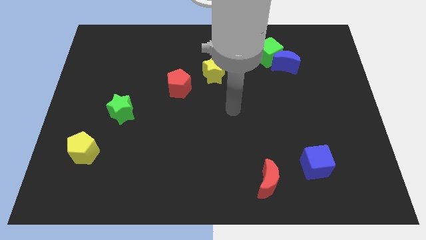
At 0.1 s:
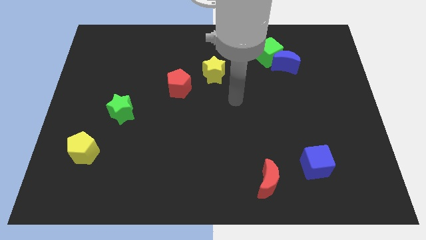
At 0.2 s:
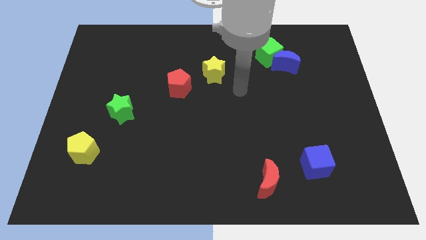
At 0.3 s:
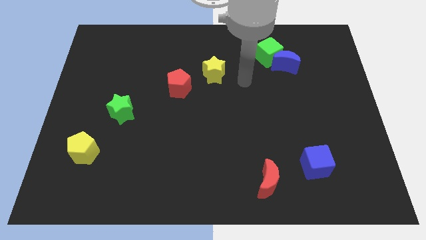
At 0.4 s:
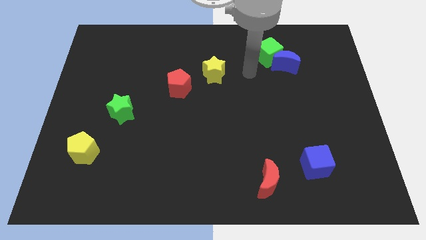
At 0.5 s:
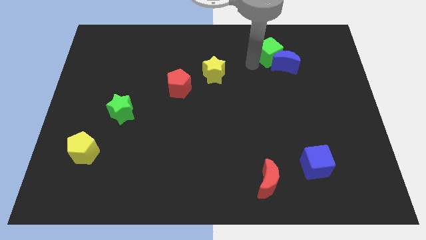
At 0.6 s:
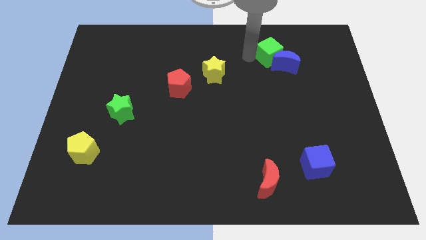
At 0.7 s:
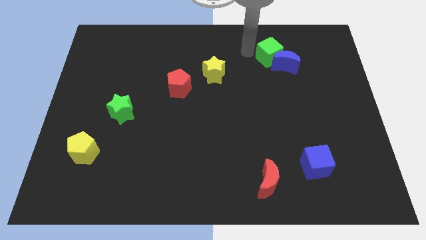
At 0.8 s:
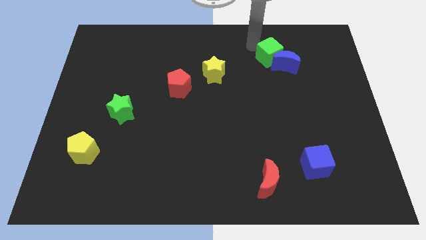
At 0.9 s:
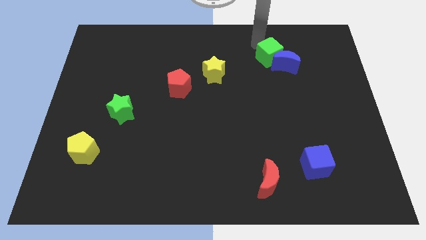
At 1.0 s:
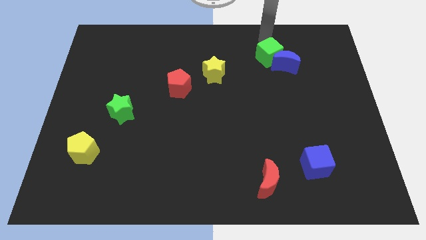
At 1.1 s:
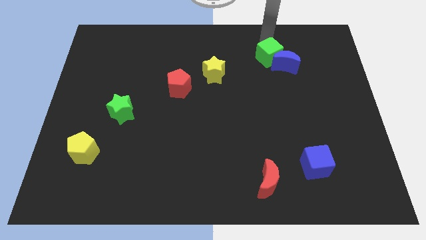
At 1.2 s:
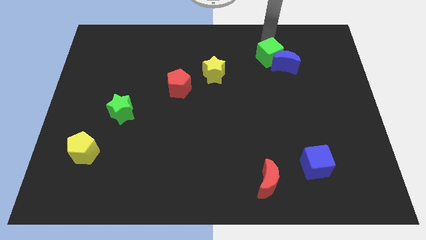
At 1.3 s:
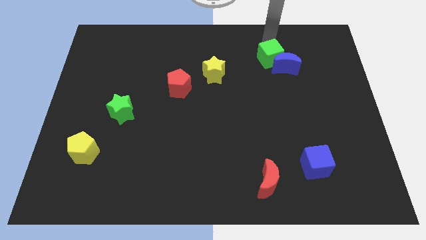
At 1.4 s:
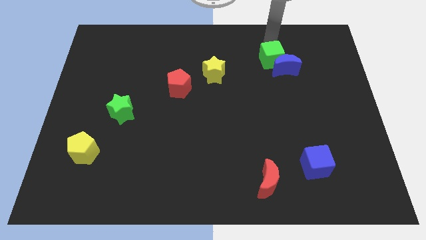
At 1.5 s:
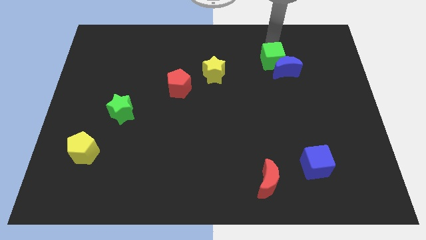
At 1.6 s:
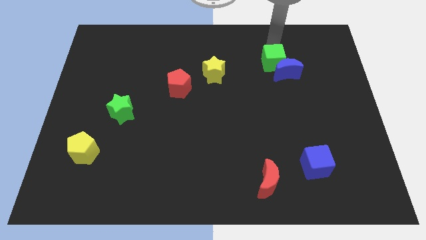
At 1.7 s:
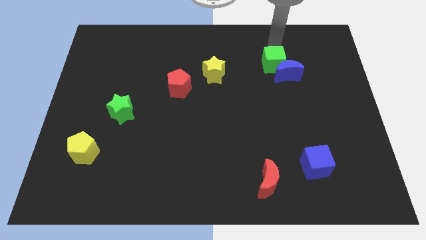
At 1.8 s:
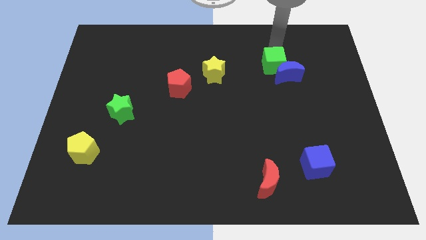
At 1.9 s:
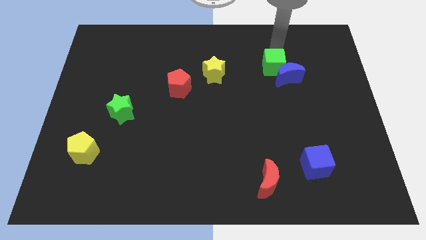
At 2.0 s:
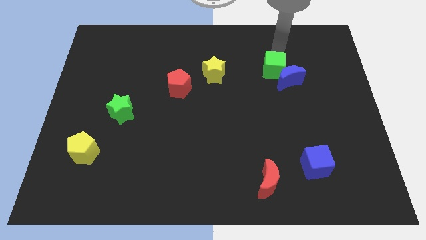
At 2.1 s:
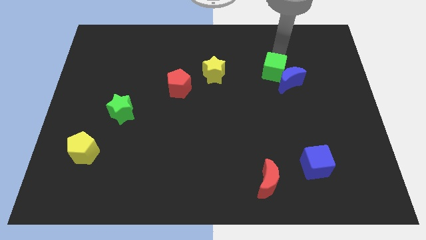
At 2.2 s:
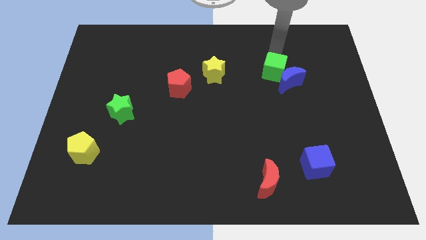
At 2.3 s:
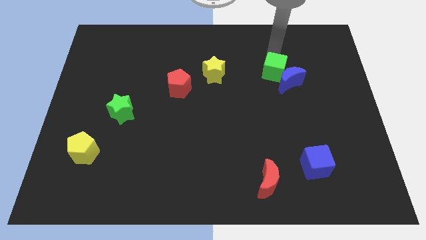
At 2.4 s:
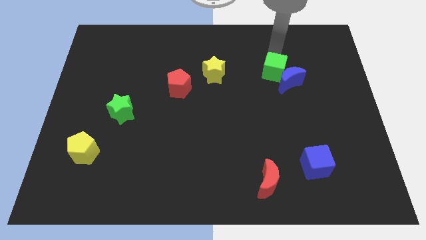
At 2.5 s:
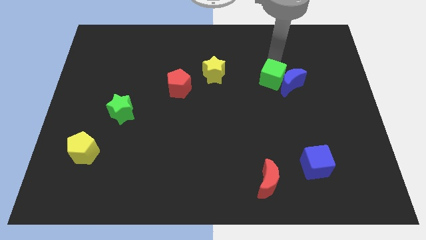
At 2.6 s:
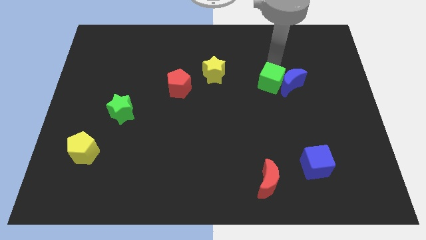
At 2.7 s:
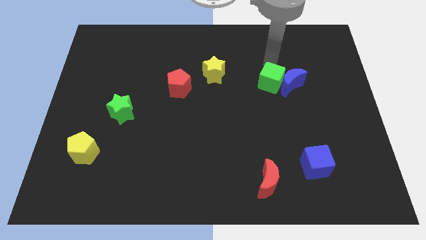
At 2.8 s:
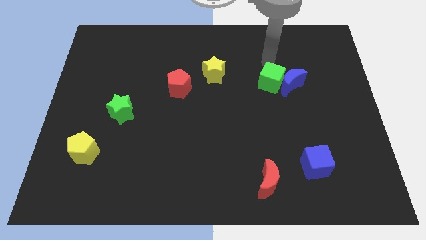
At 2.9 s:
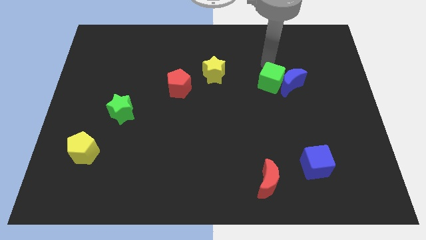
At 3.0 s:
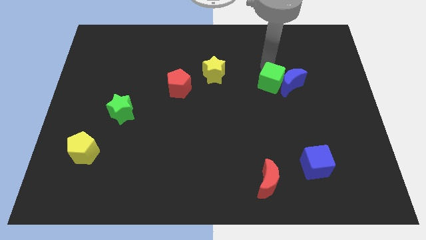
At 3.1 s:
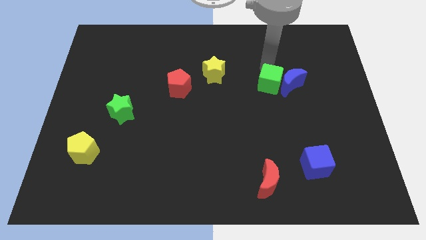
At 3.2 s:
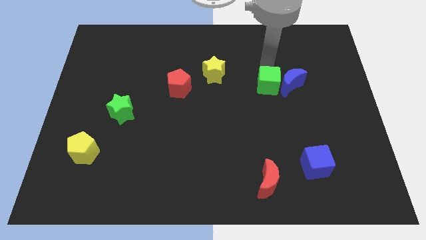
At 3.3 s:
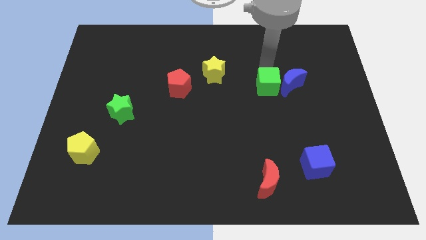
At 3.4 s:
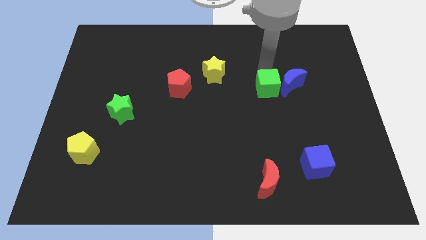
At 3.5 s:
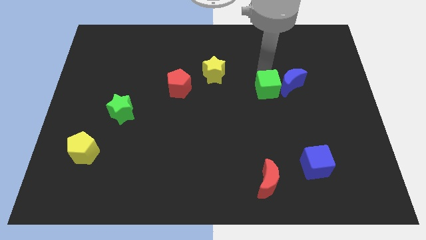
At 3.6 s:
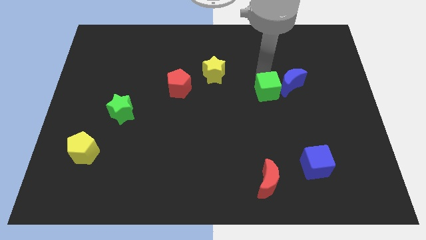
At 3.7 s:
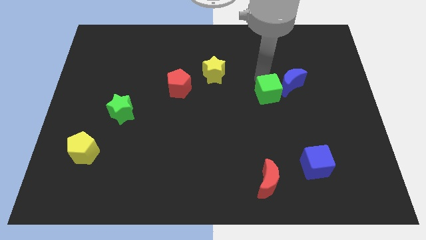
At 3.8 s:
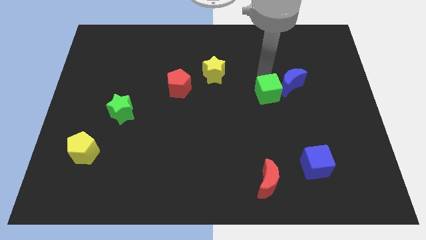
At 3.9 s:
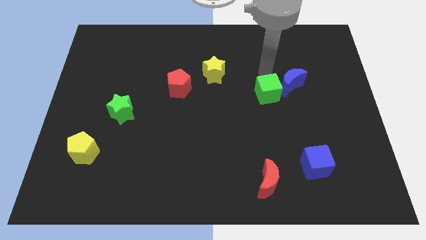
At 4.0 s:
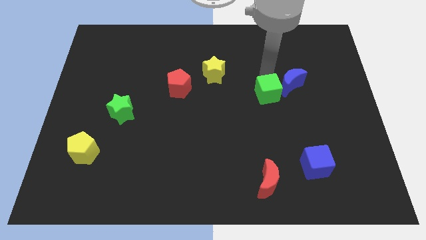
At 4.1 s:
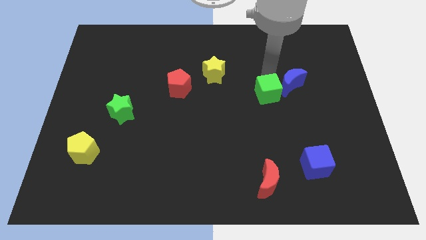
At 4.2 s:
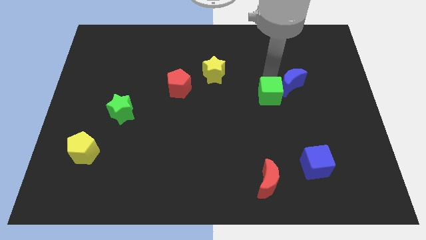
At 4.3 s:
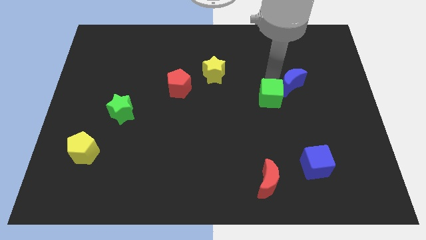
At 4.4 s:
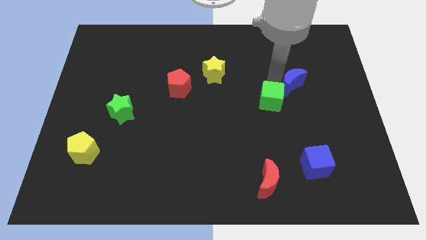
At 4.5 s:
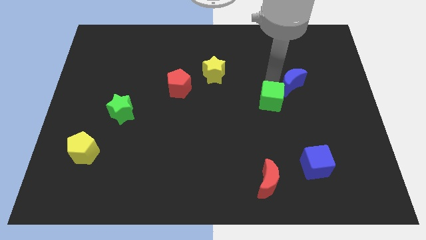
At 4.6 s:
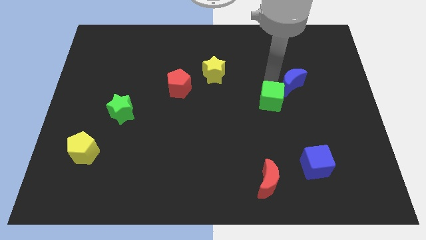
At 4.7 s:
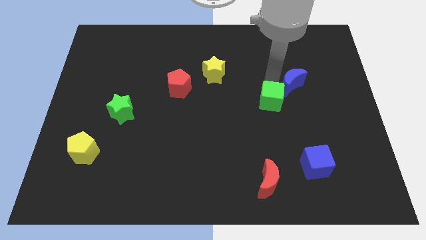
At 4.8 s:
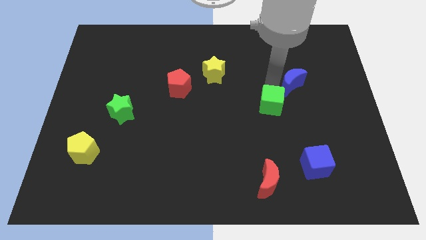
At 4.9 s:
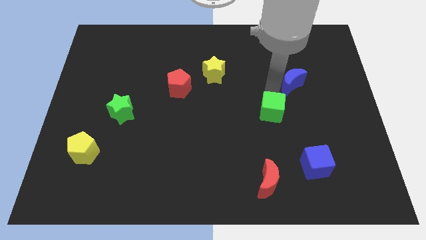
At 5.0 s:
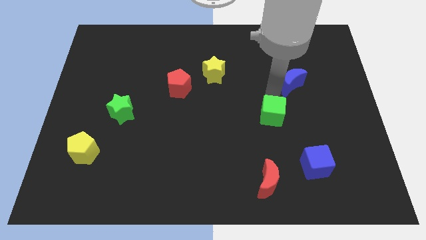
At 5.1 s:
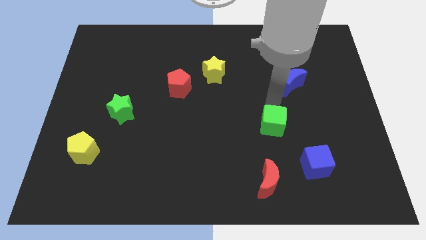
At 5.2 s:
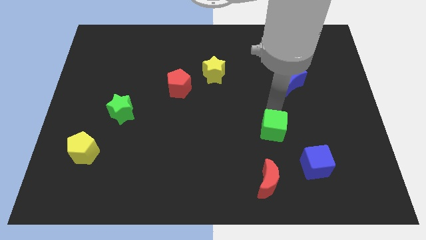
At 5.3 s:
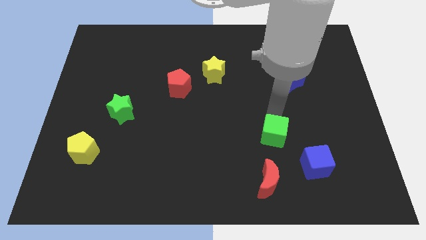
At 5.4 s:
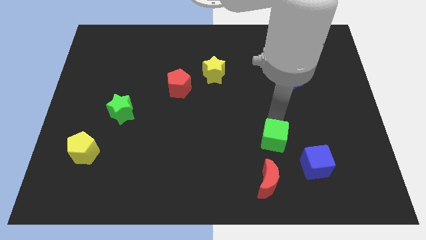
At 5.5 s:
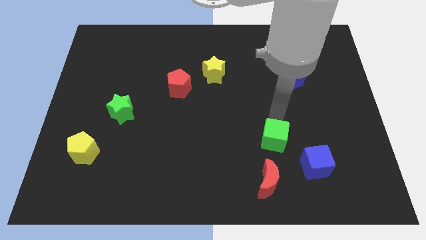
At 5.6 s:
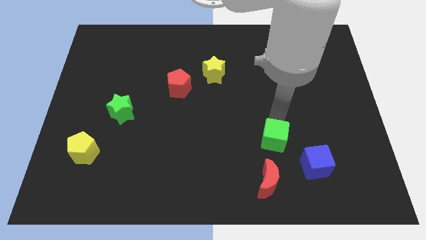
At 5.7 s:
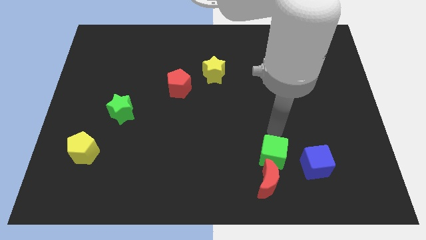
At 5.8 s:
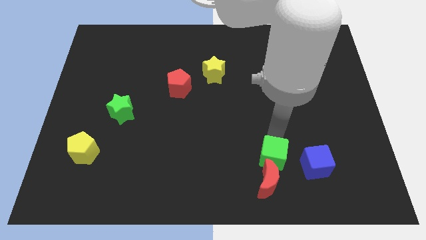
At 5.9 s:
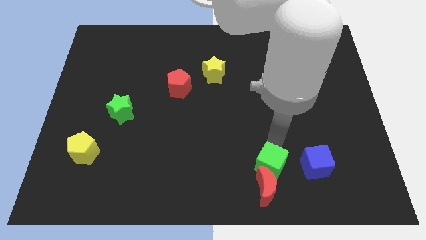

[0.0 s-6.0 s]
put the green cube next to the red moon

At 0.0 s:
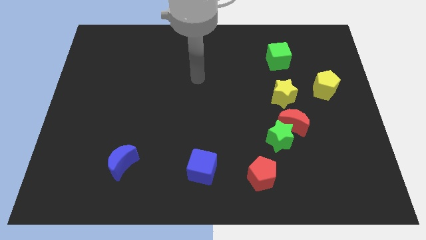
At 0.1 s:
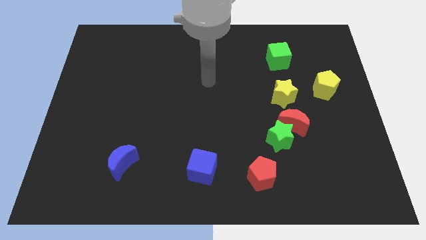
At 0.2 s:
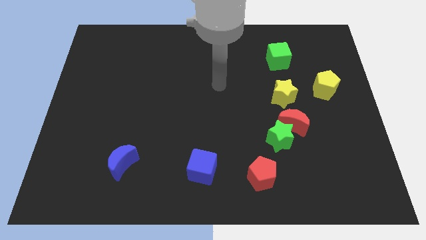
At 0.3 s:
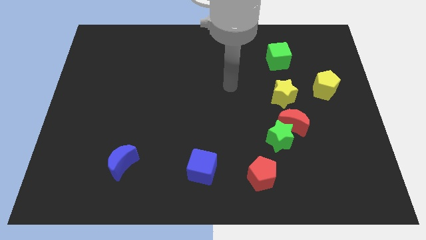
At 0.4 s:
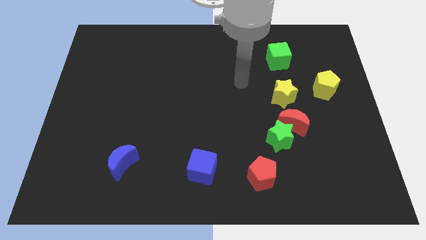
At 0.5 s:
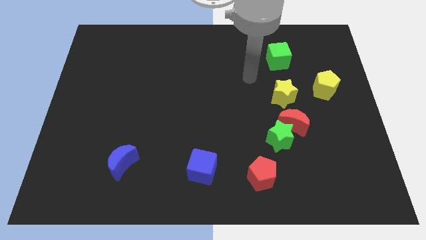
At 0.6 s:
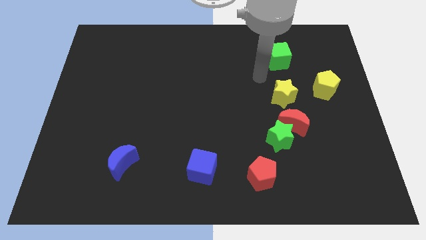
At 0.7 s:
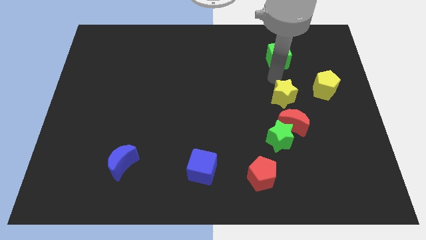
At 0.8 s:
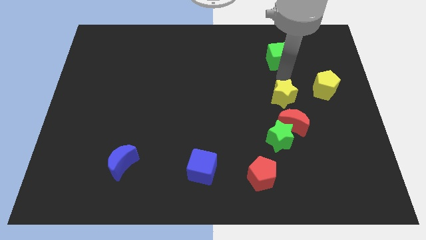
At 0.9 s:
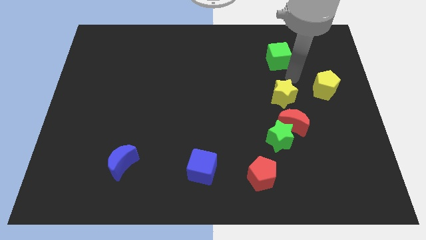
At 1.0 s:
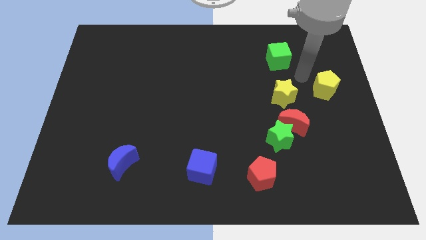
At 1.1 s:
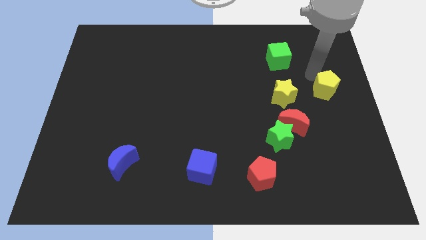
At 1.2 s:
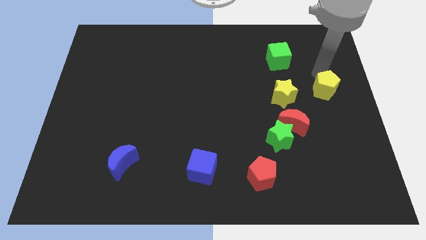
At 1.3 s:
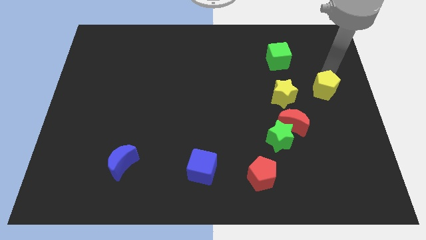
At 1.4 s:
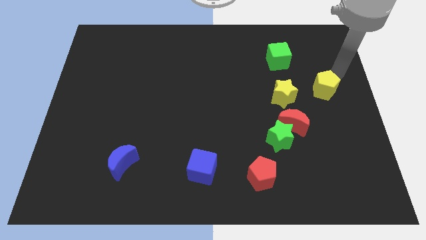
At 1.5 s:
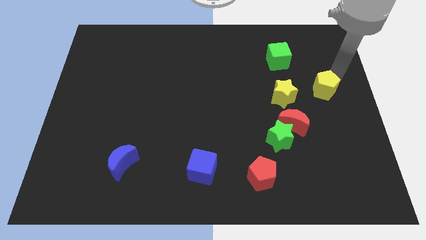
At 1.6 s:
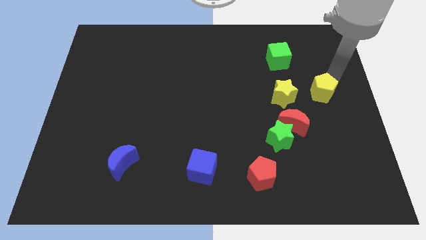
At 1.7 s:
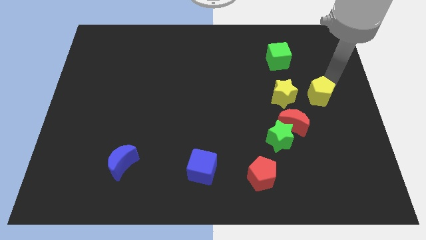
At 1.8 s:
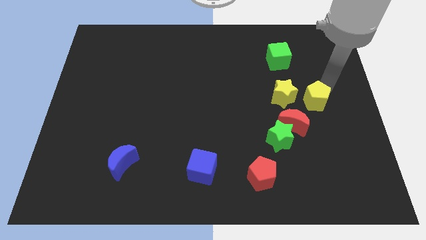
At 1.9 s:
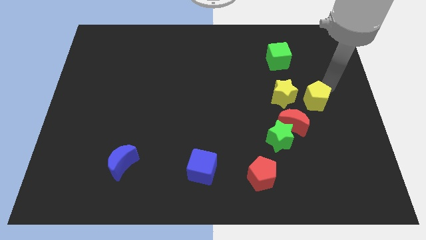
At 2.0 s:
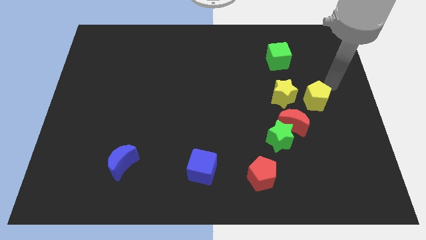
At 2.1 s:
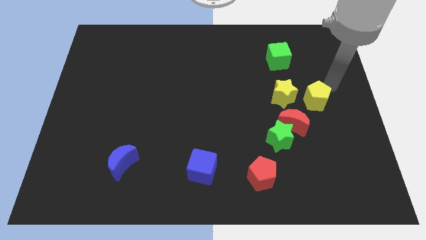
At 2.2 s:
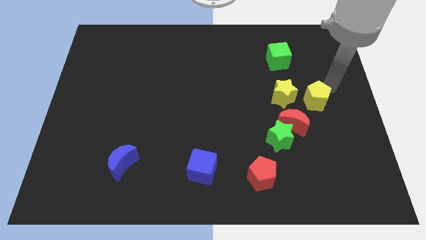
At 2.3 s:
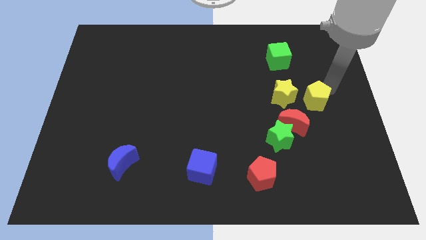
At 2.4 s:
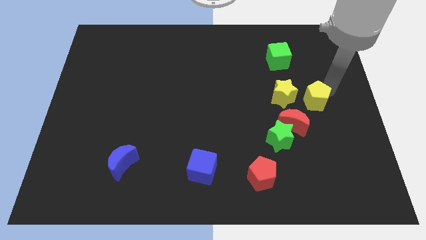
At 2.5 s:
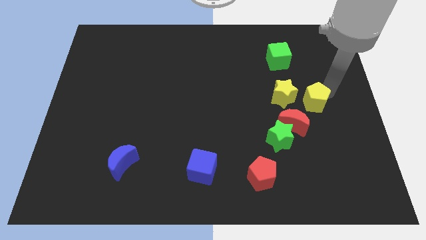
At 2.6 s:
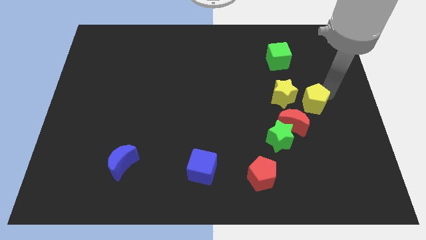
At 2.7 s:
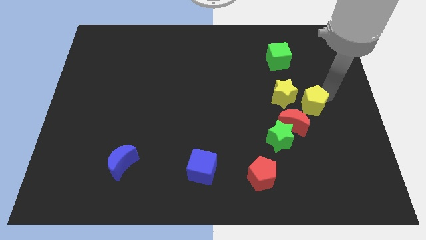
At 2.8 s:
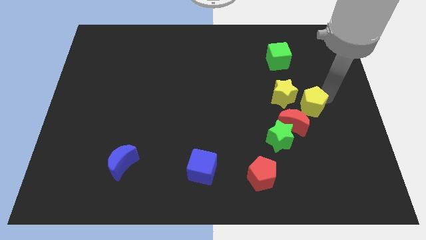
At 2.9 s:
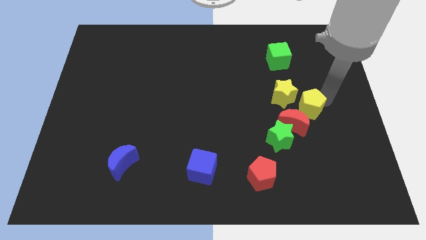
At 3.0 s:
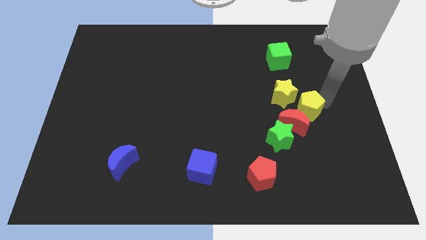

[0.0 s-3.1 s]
move the yellow pentagon to the red moon
